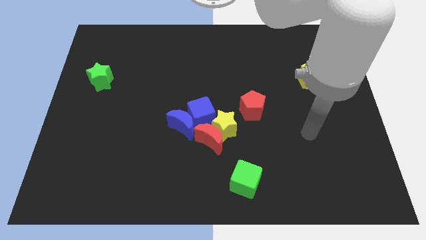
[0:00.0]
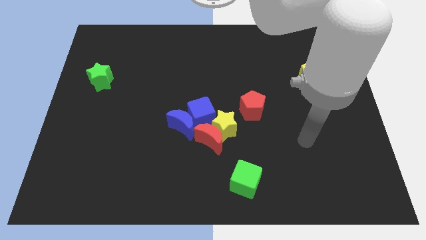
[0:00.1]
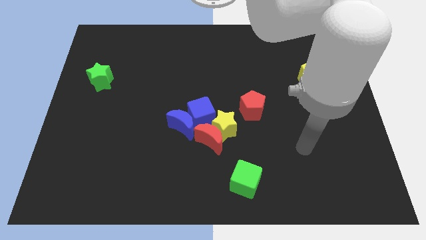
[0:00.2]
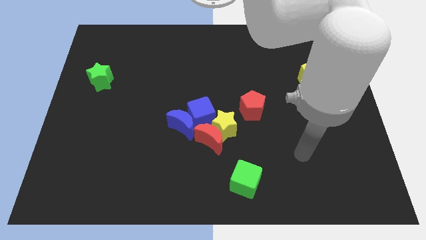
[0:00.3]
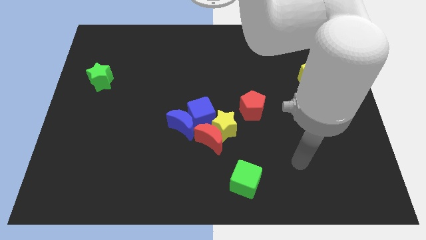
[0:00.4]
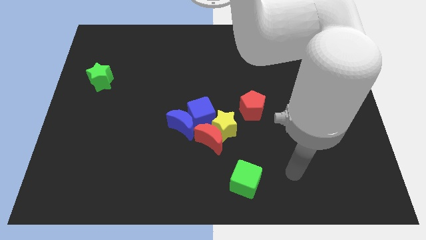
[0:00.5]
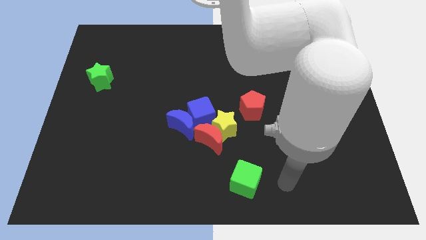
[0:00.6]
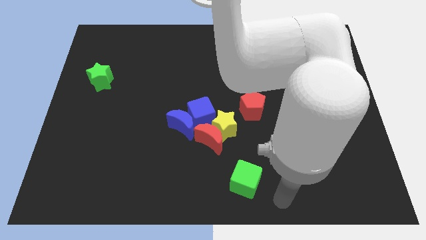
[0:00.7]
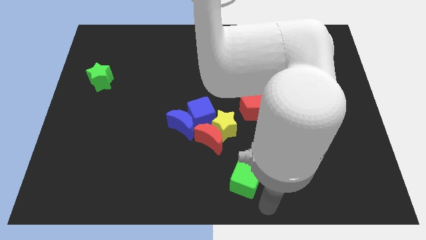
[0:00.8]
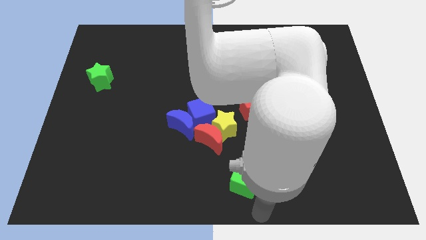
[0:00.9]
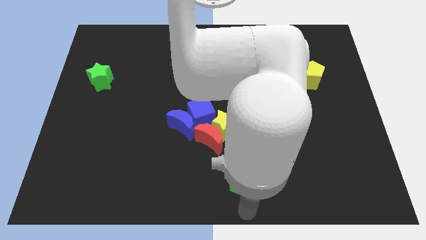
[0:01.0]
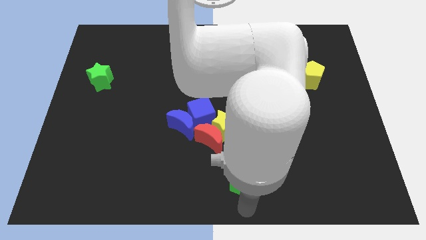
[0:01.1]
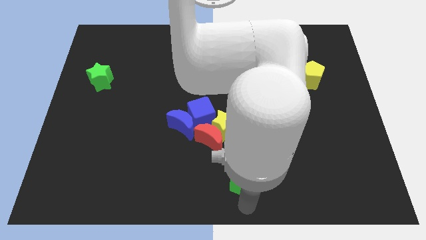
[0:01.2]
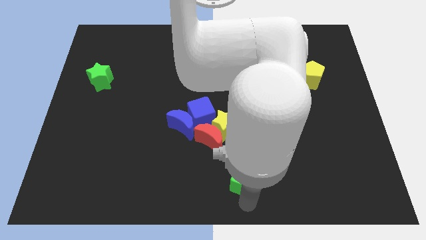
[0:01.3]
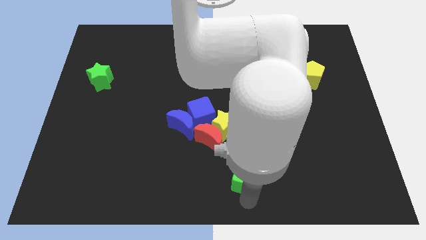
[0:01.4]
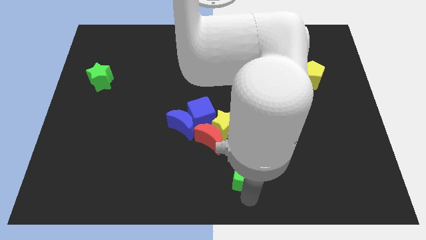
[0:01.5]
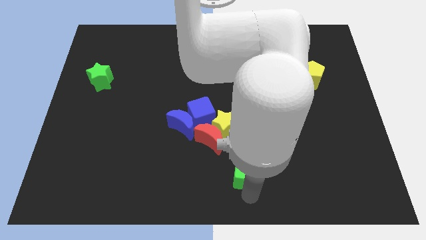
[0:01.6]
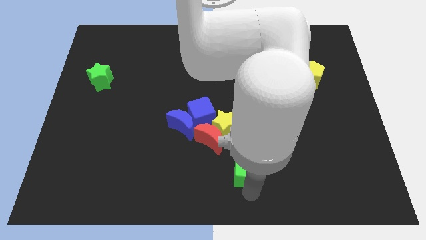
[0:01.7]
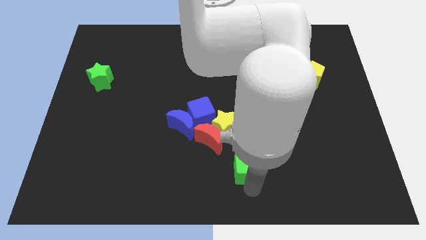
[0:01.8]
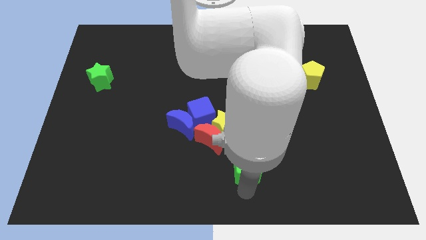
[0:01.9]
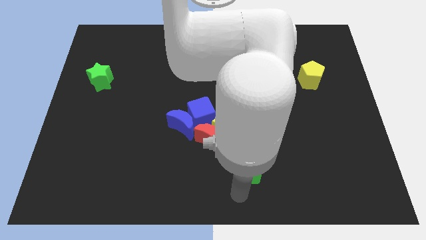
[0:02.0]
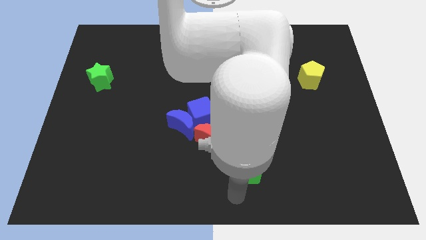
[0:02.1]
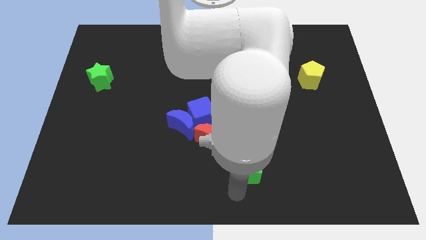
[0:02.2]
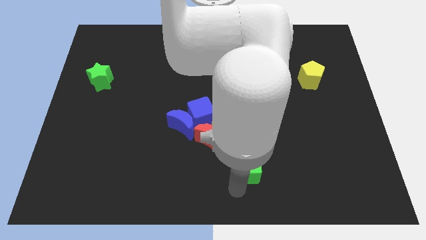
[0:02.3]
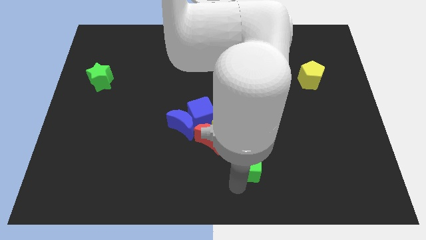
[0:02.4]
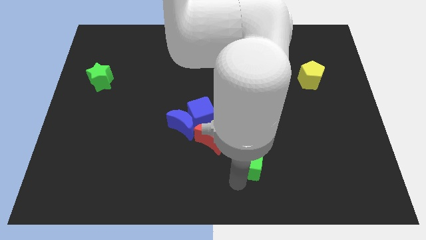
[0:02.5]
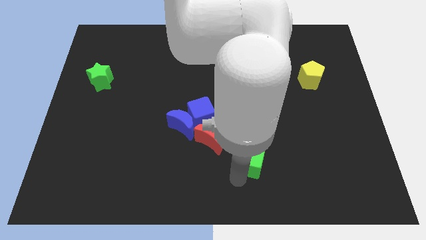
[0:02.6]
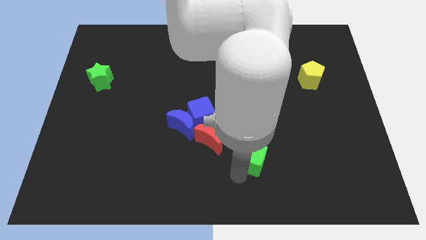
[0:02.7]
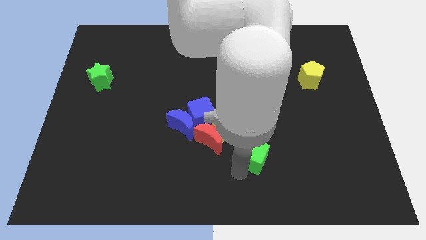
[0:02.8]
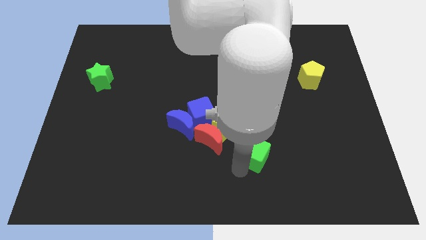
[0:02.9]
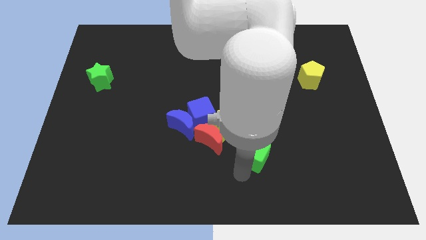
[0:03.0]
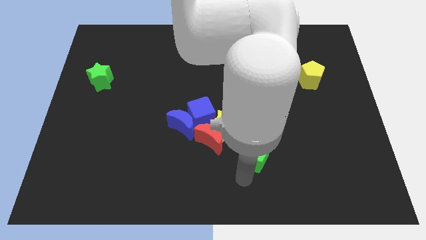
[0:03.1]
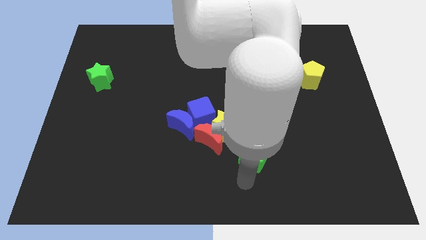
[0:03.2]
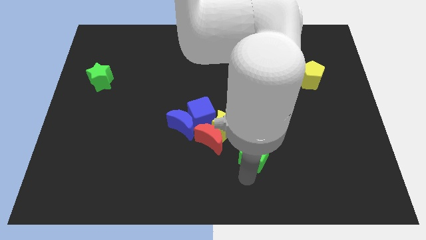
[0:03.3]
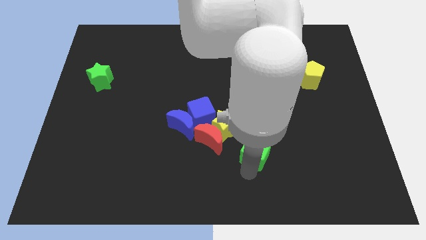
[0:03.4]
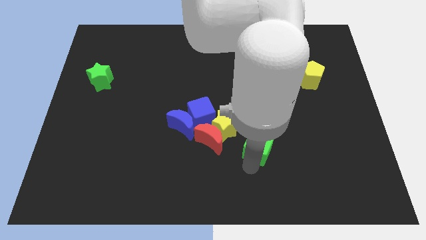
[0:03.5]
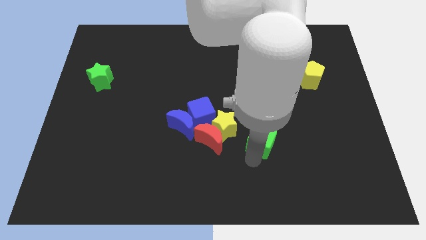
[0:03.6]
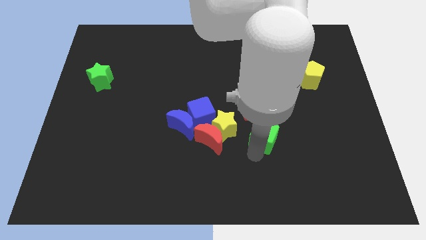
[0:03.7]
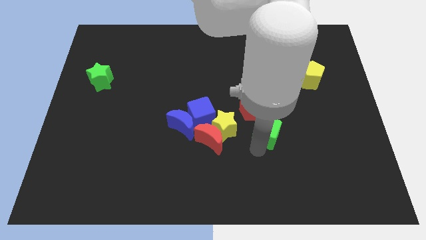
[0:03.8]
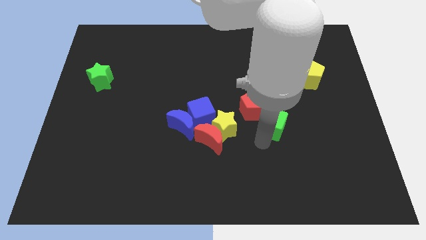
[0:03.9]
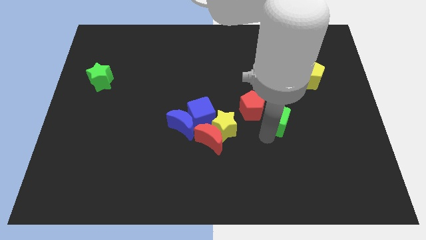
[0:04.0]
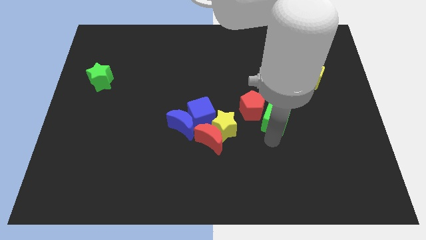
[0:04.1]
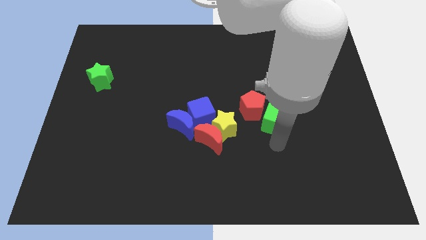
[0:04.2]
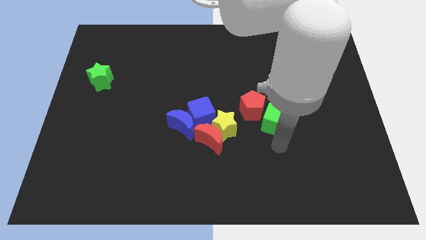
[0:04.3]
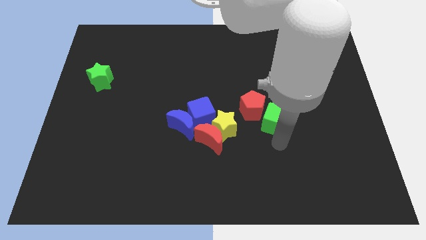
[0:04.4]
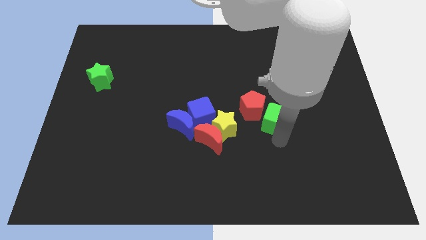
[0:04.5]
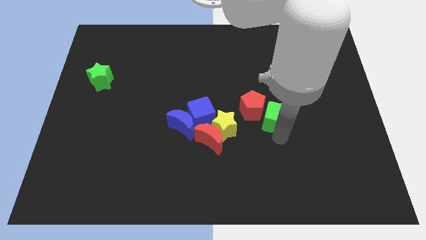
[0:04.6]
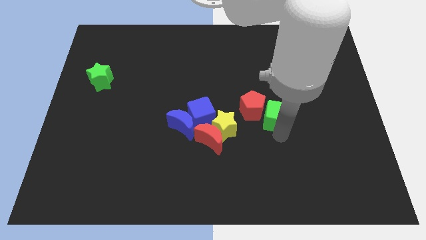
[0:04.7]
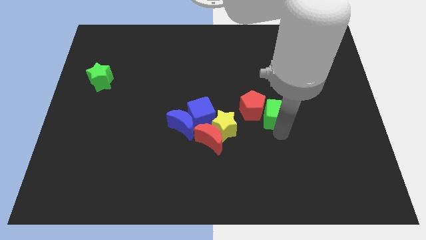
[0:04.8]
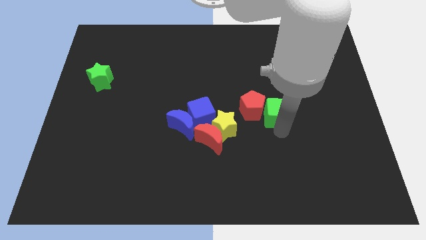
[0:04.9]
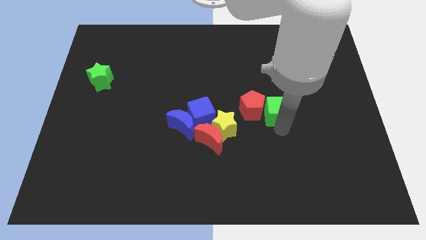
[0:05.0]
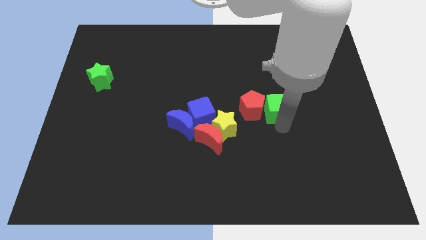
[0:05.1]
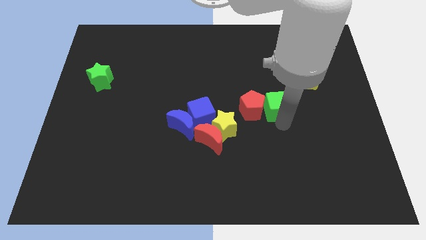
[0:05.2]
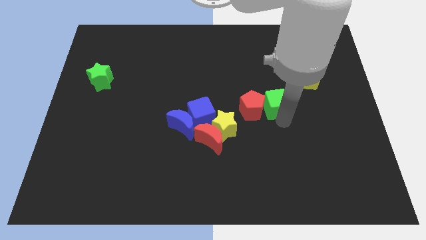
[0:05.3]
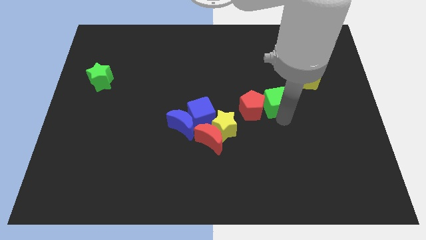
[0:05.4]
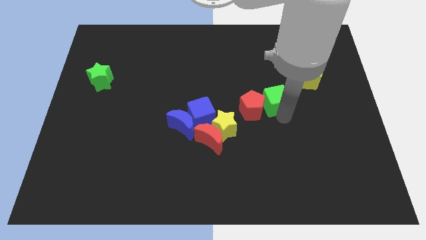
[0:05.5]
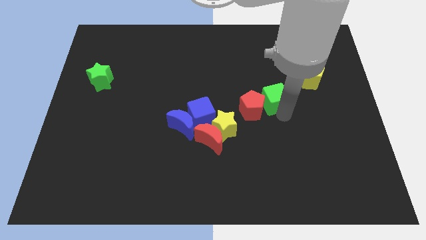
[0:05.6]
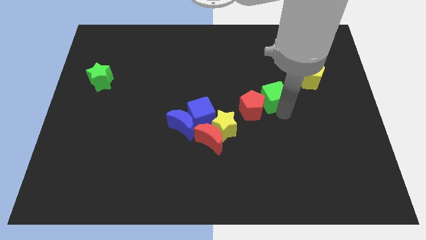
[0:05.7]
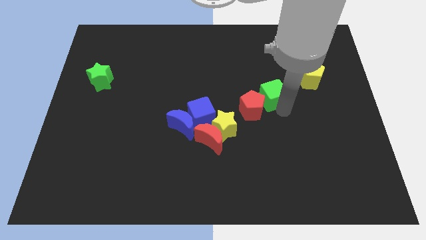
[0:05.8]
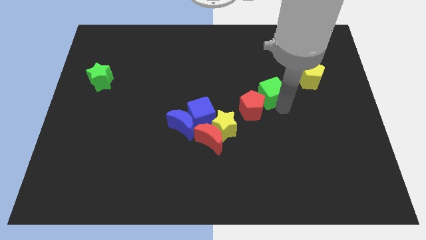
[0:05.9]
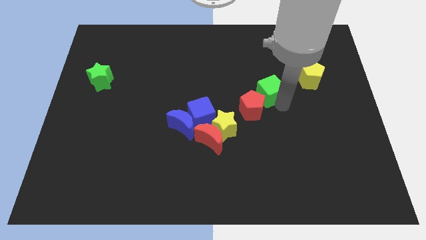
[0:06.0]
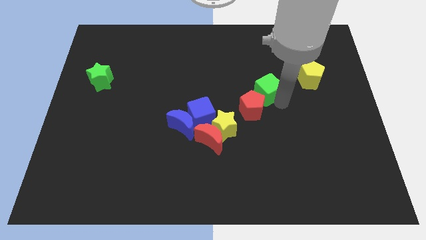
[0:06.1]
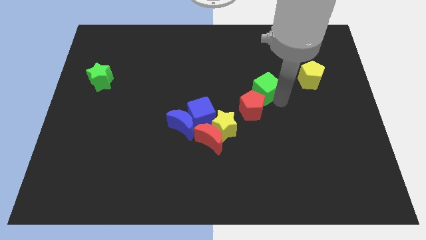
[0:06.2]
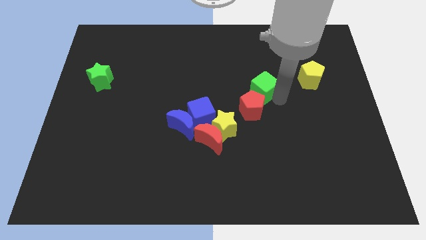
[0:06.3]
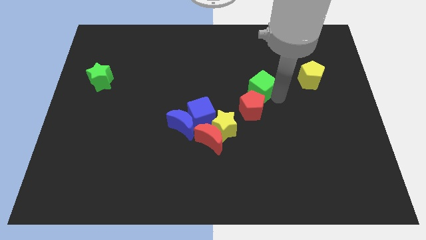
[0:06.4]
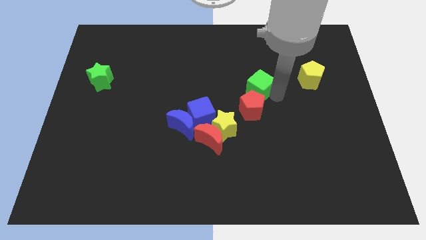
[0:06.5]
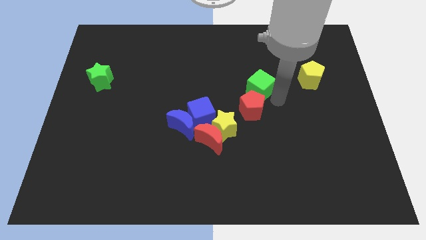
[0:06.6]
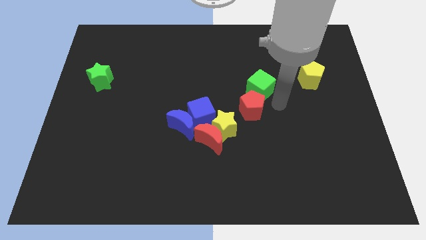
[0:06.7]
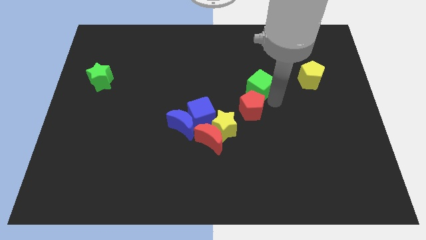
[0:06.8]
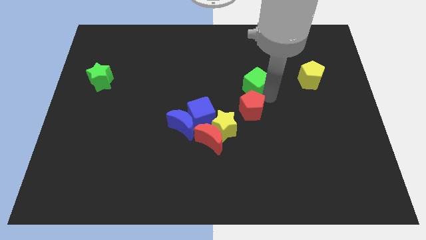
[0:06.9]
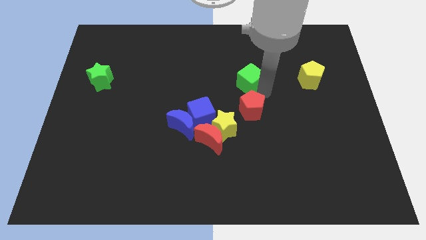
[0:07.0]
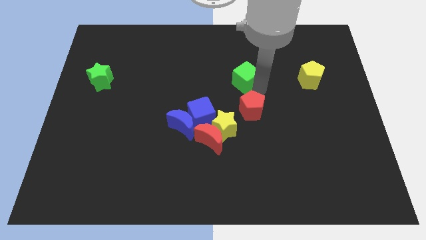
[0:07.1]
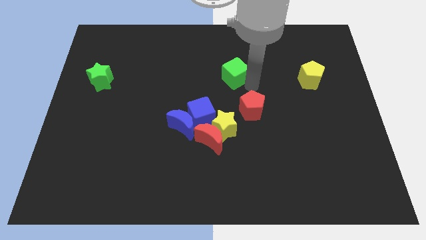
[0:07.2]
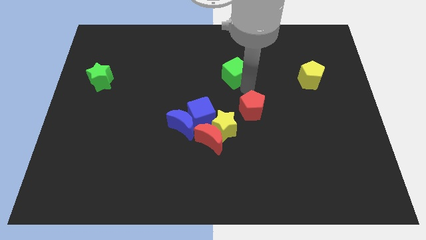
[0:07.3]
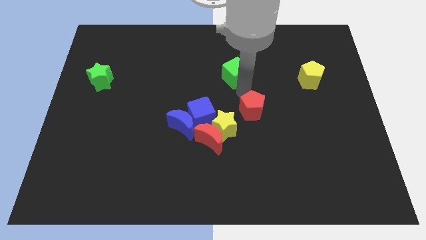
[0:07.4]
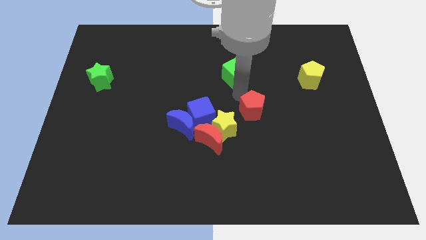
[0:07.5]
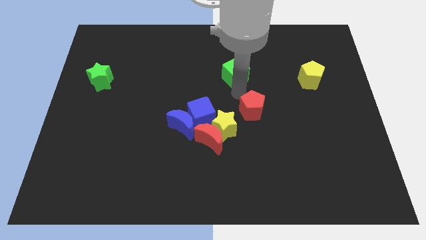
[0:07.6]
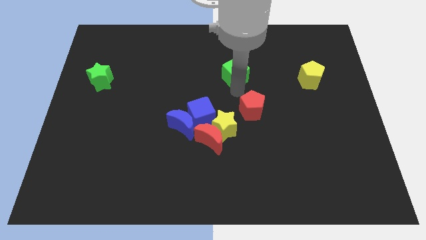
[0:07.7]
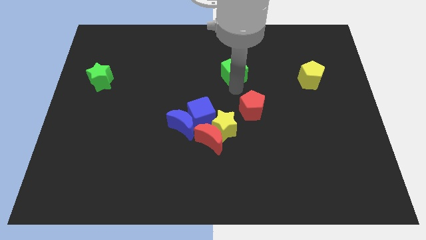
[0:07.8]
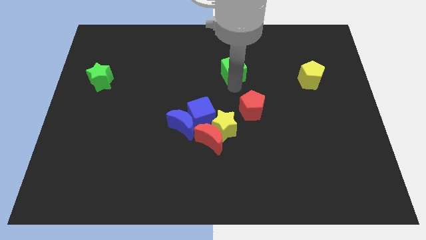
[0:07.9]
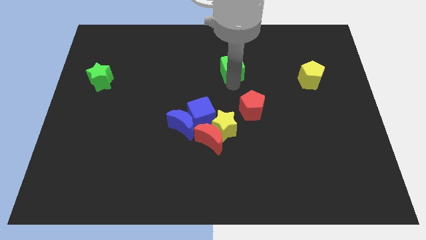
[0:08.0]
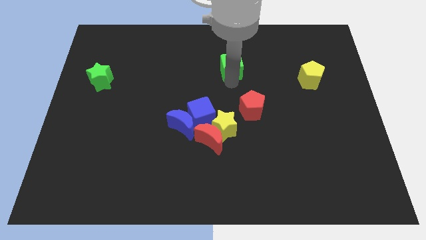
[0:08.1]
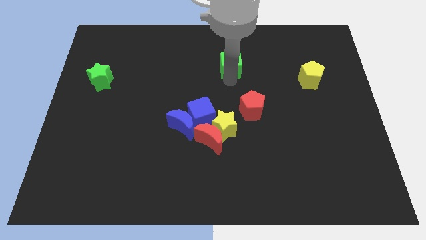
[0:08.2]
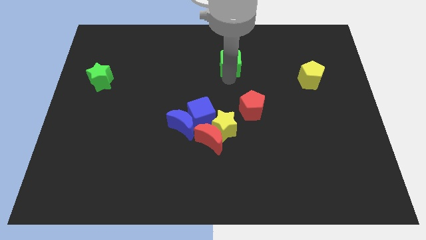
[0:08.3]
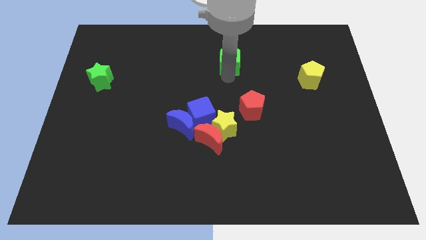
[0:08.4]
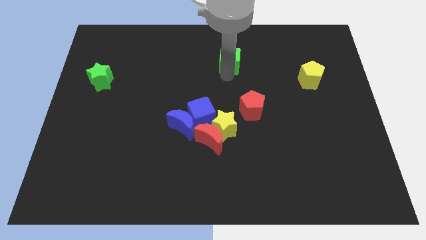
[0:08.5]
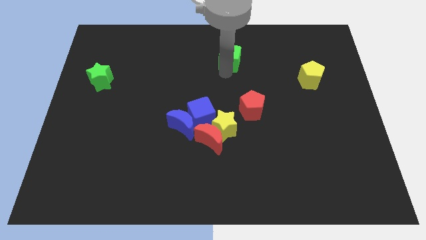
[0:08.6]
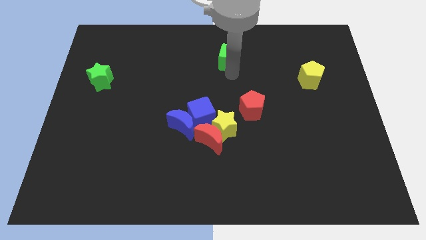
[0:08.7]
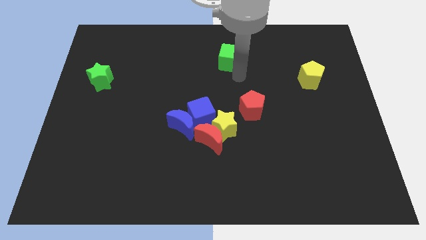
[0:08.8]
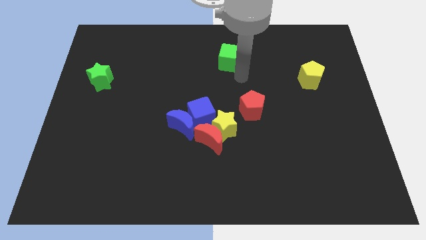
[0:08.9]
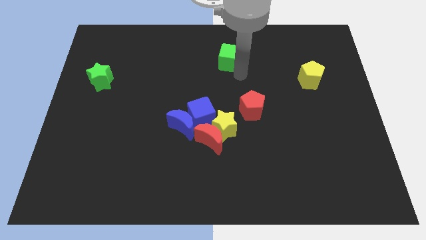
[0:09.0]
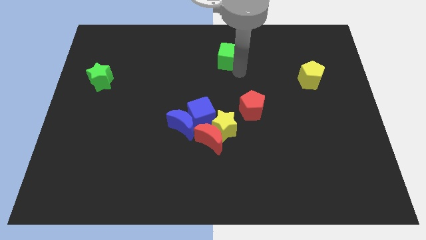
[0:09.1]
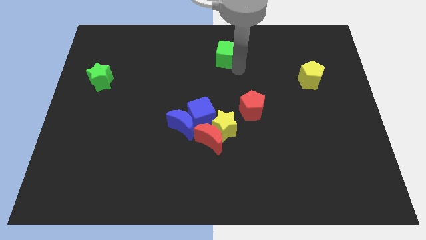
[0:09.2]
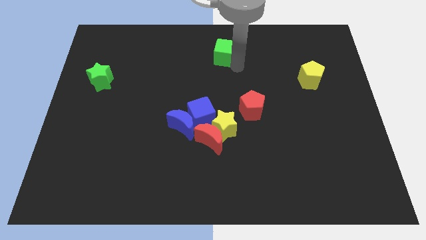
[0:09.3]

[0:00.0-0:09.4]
put the green cube to the towards your base
